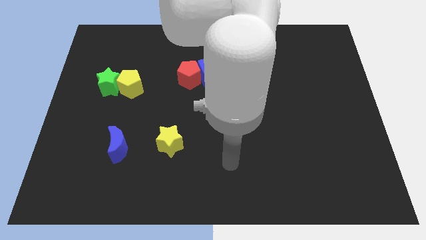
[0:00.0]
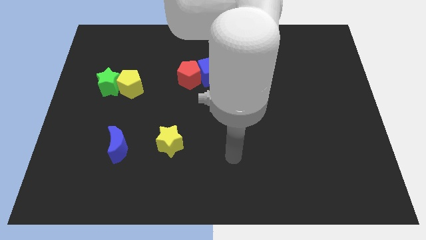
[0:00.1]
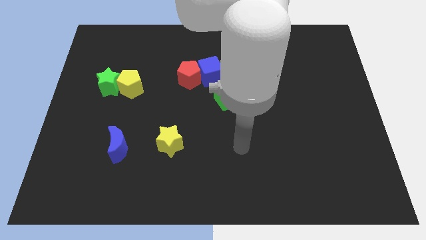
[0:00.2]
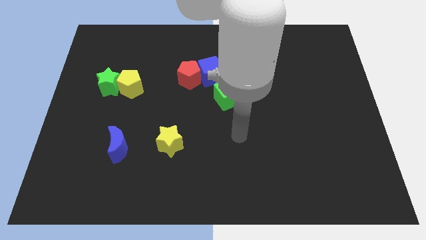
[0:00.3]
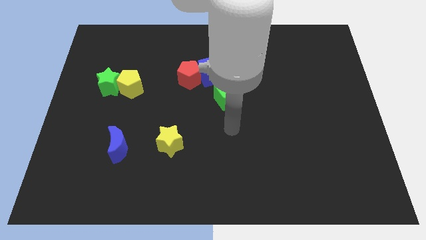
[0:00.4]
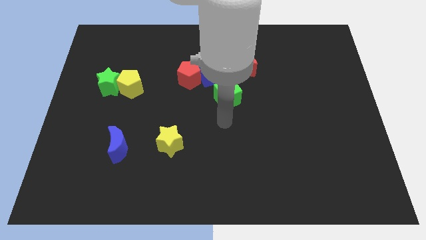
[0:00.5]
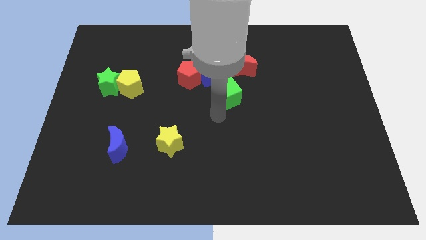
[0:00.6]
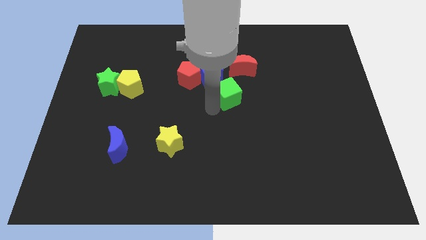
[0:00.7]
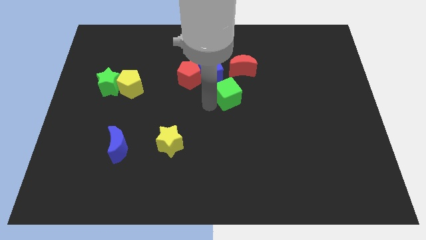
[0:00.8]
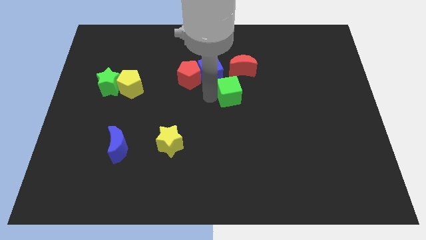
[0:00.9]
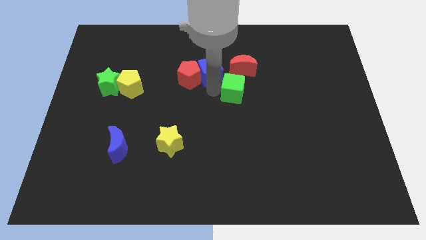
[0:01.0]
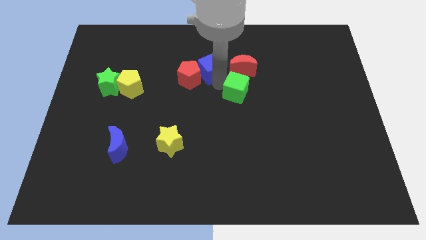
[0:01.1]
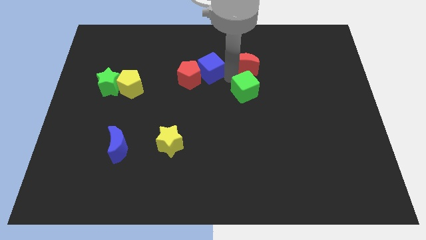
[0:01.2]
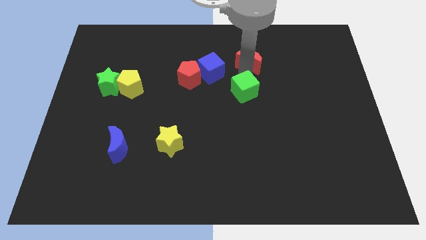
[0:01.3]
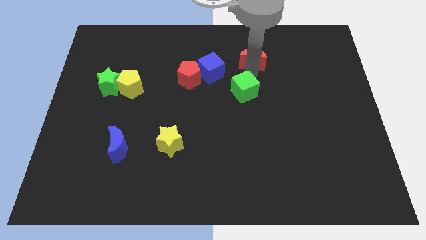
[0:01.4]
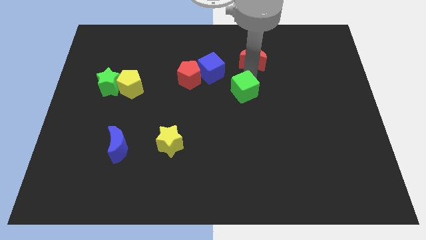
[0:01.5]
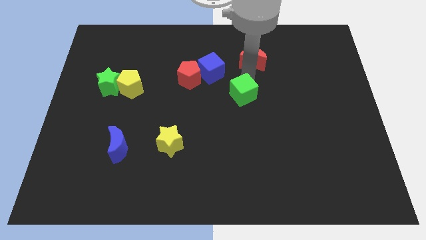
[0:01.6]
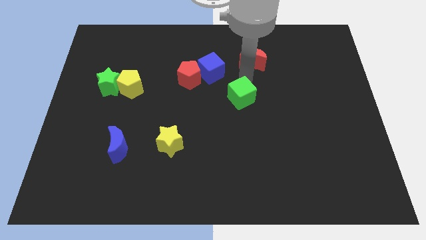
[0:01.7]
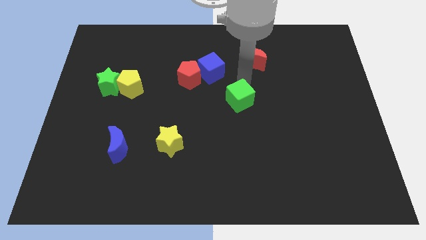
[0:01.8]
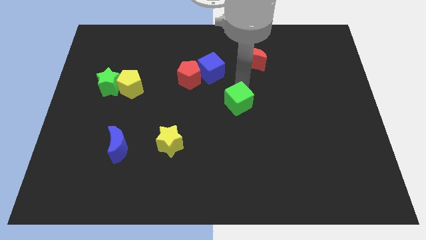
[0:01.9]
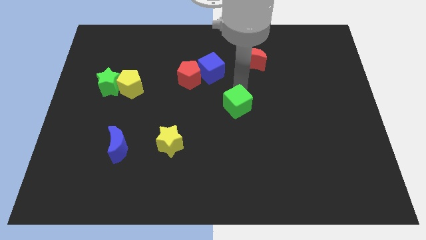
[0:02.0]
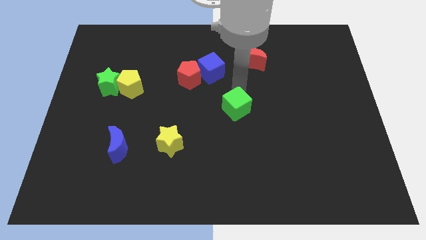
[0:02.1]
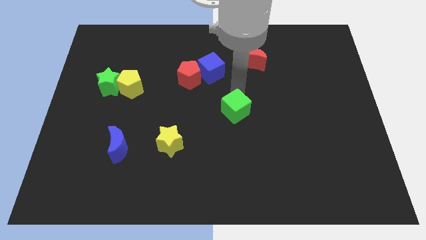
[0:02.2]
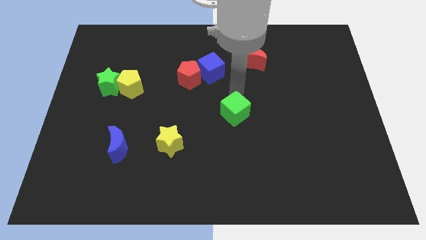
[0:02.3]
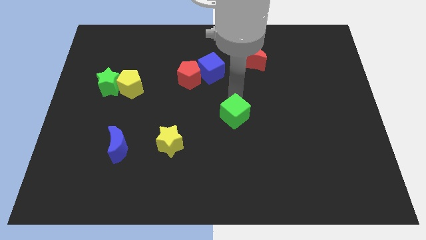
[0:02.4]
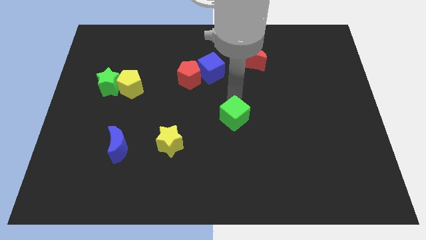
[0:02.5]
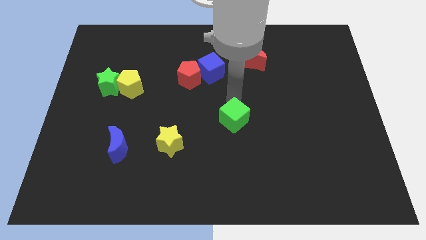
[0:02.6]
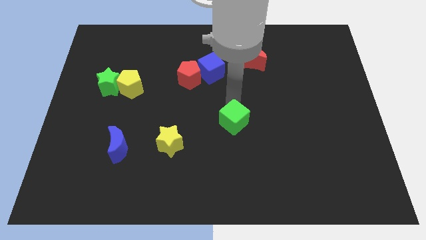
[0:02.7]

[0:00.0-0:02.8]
move the green cube slightly downwards

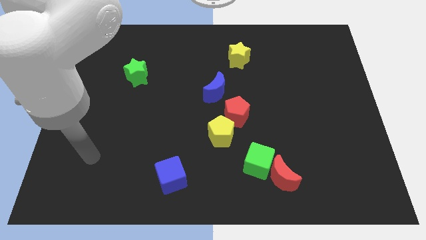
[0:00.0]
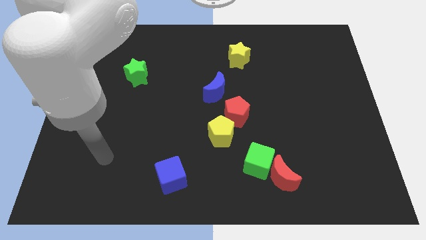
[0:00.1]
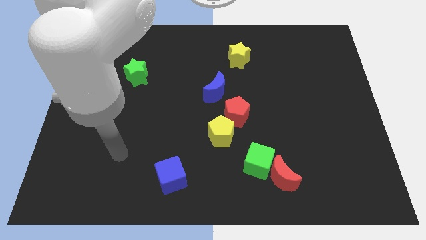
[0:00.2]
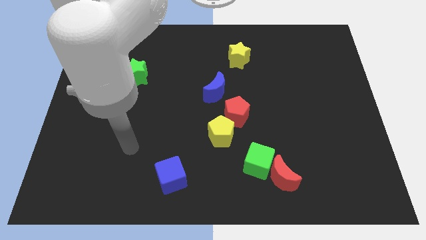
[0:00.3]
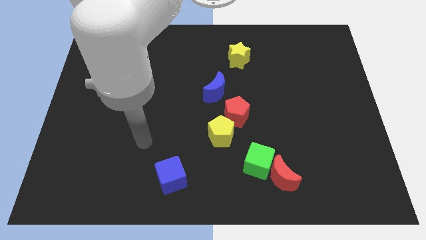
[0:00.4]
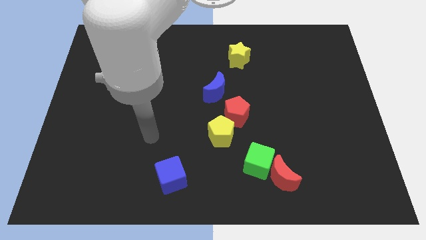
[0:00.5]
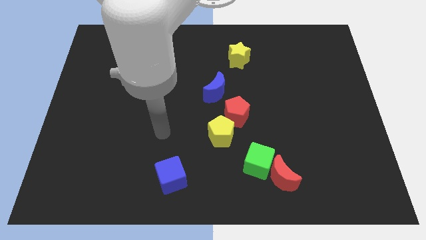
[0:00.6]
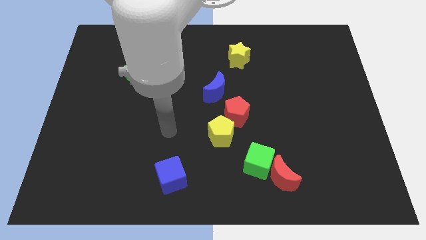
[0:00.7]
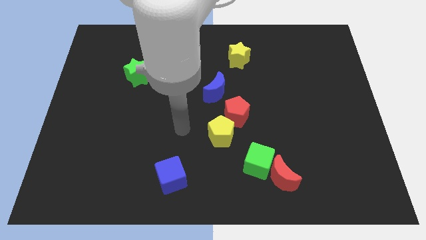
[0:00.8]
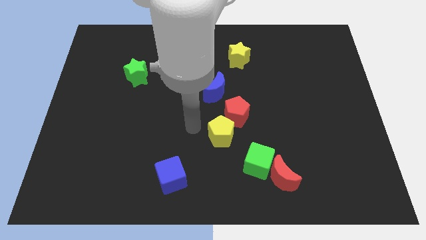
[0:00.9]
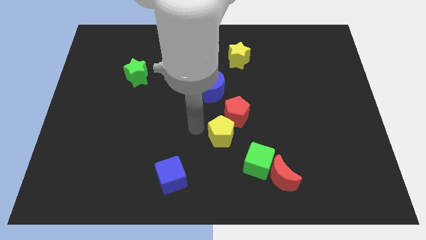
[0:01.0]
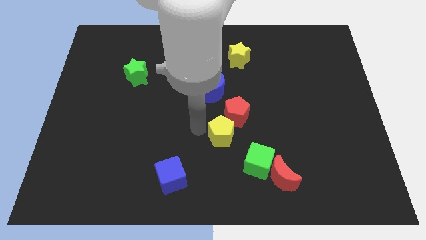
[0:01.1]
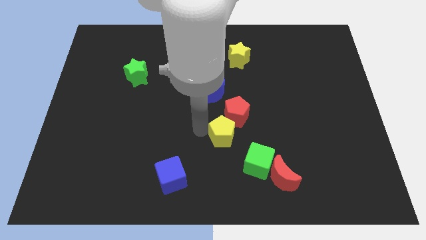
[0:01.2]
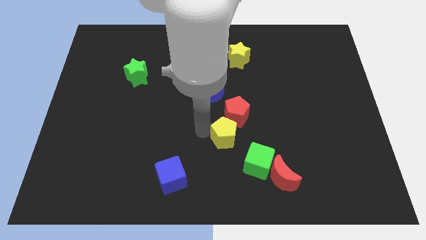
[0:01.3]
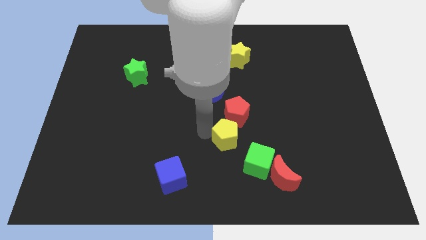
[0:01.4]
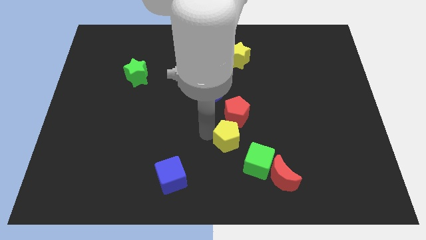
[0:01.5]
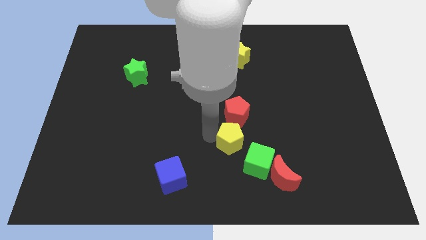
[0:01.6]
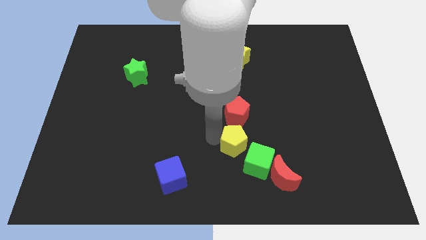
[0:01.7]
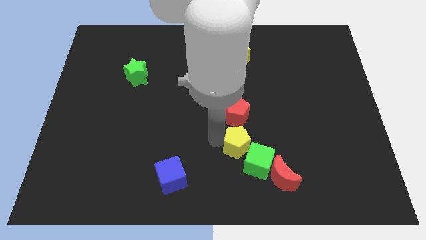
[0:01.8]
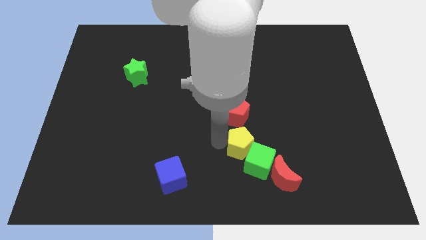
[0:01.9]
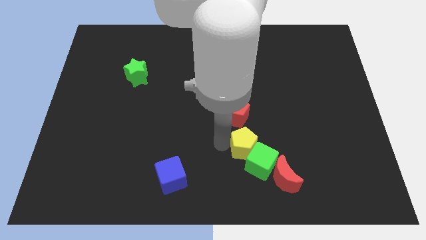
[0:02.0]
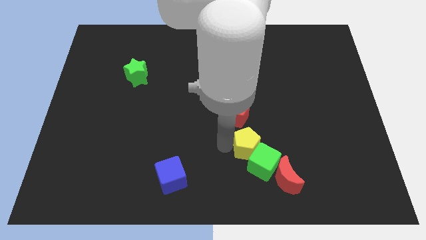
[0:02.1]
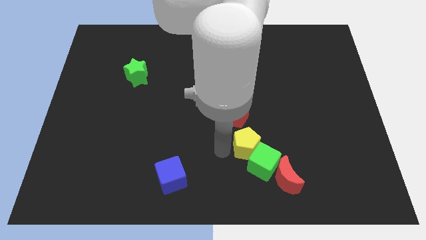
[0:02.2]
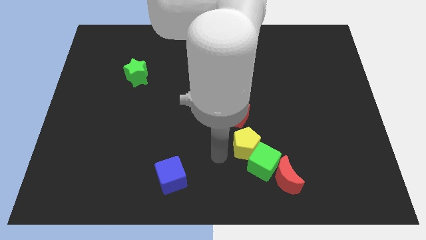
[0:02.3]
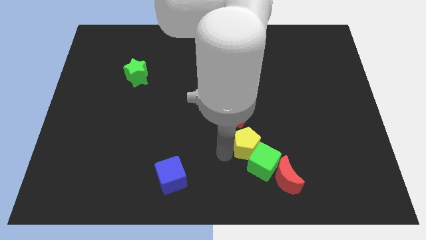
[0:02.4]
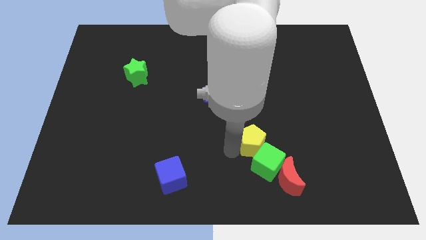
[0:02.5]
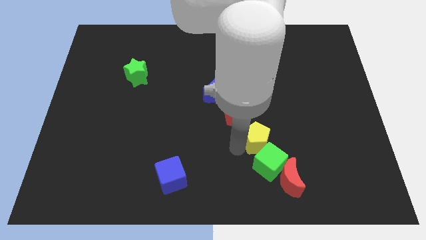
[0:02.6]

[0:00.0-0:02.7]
move the yellow pentagon right somewhat

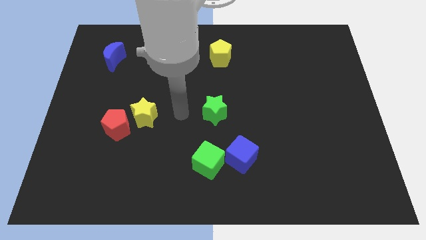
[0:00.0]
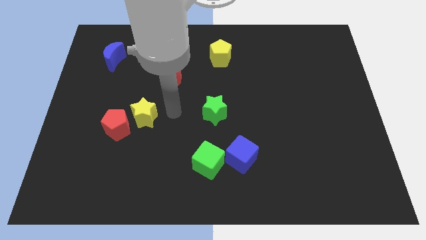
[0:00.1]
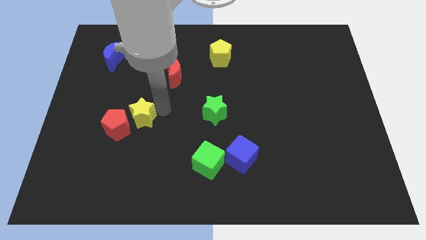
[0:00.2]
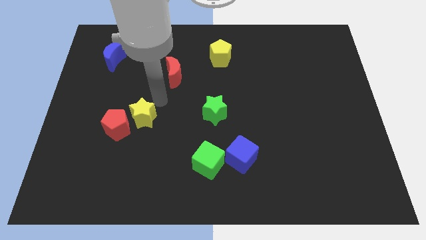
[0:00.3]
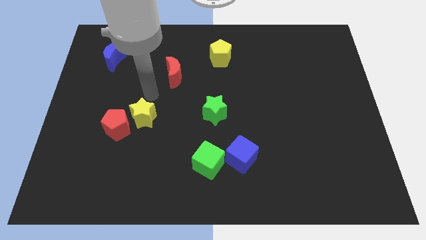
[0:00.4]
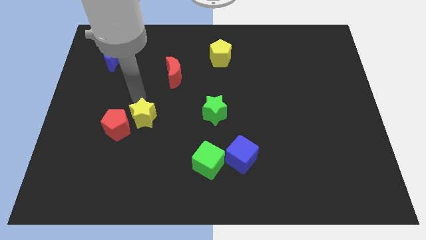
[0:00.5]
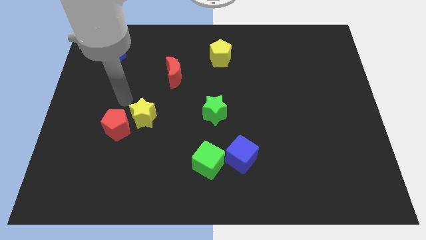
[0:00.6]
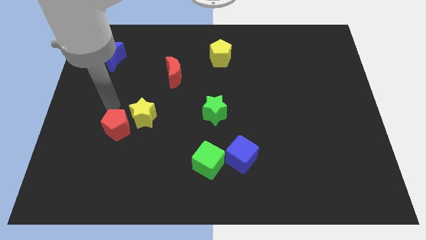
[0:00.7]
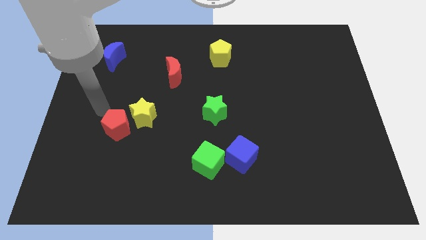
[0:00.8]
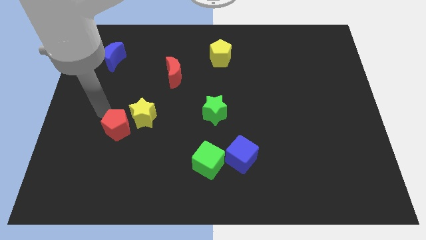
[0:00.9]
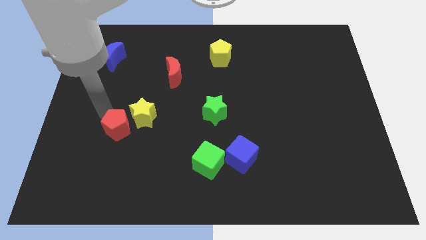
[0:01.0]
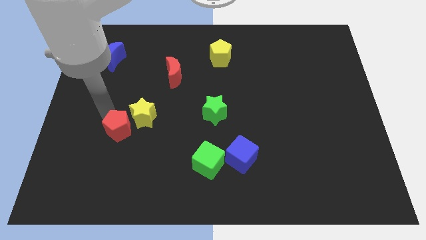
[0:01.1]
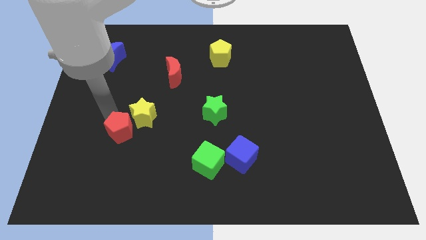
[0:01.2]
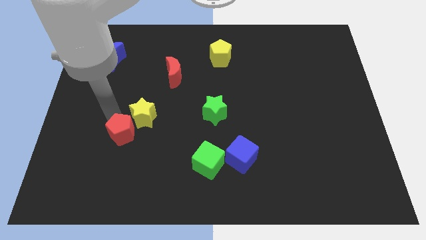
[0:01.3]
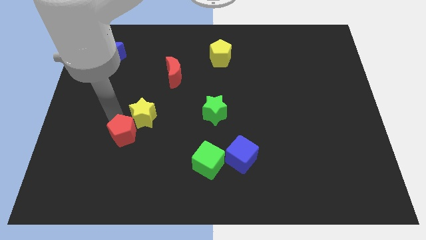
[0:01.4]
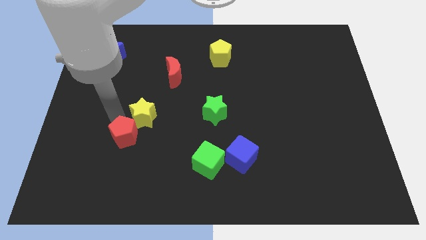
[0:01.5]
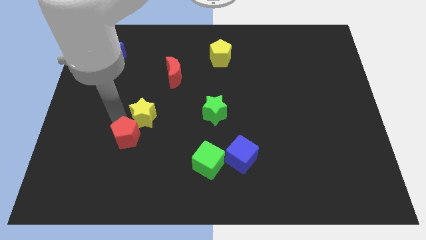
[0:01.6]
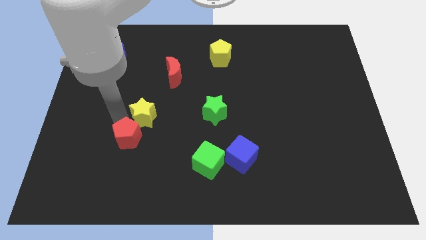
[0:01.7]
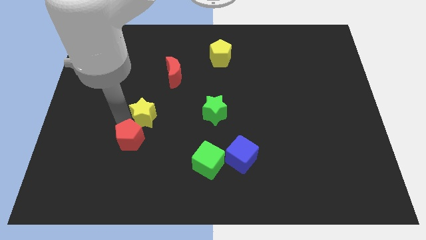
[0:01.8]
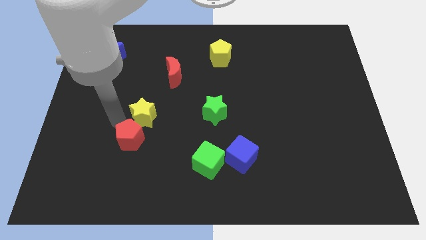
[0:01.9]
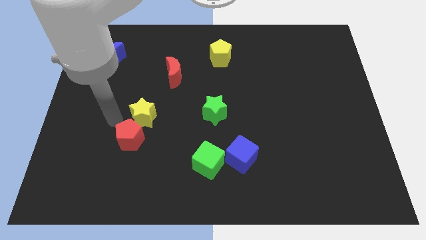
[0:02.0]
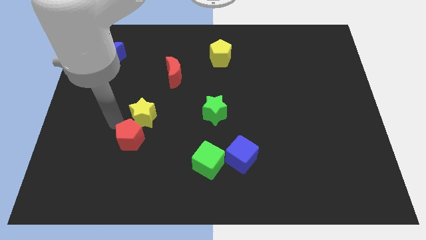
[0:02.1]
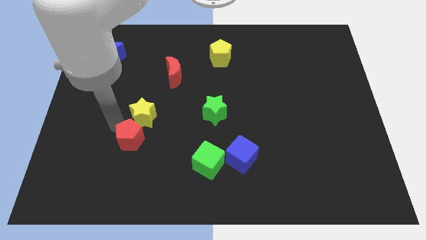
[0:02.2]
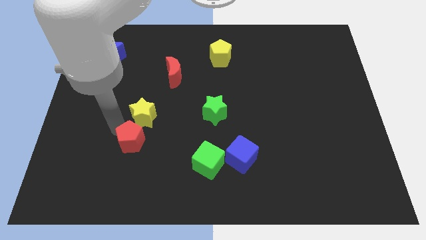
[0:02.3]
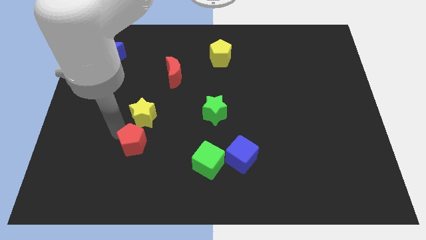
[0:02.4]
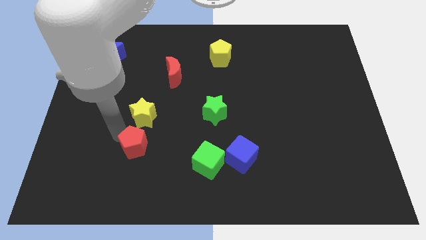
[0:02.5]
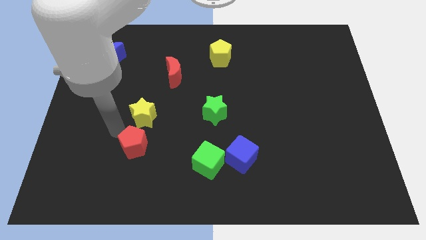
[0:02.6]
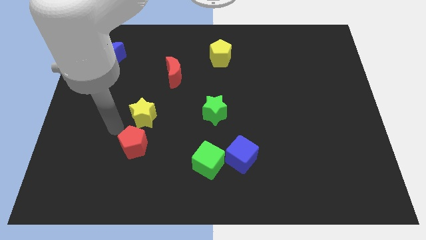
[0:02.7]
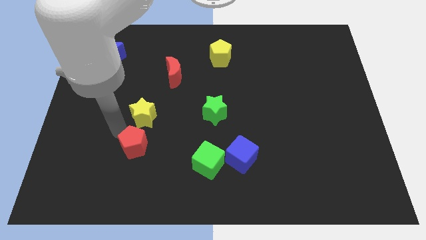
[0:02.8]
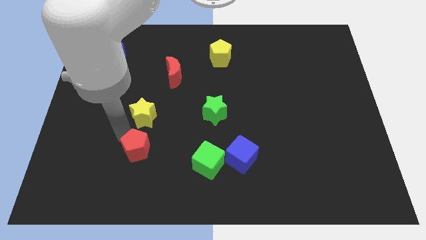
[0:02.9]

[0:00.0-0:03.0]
slightly slide the red pentagon downwards and to the right diagonally
